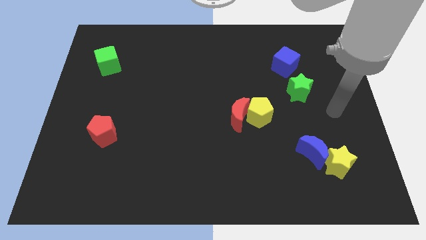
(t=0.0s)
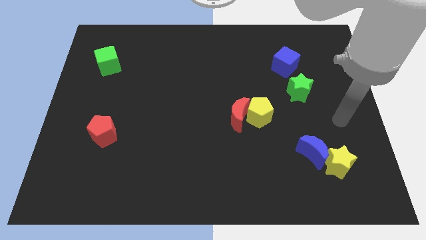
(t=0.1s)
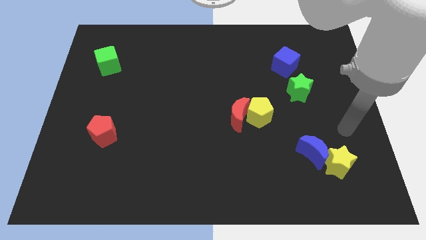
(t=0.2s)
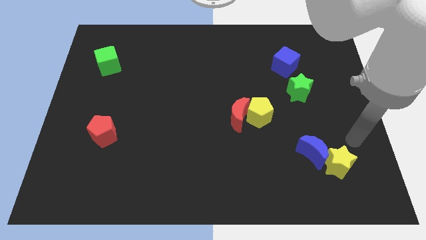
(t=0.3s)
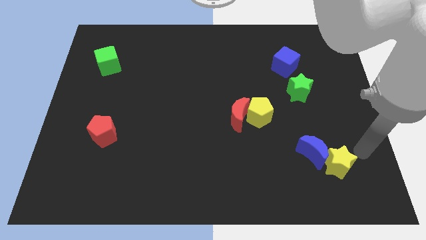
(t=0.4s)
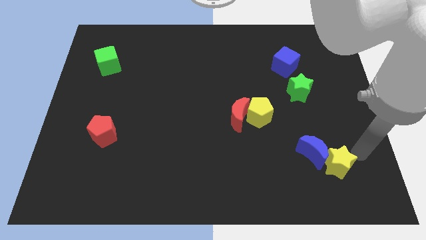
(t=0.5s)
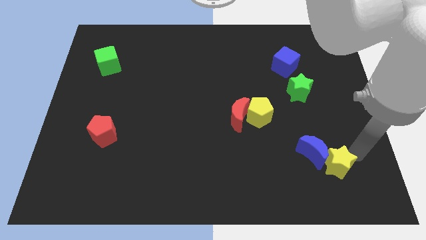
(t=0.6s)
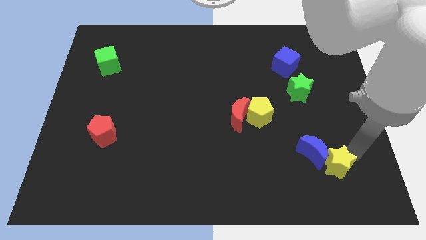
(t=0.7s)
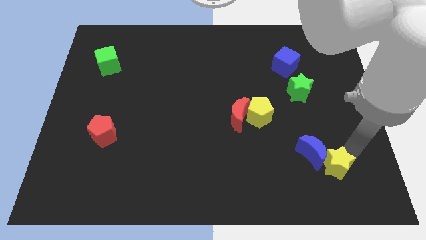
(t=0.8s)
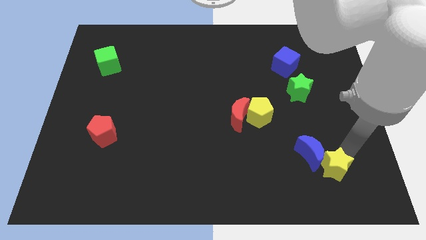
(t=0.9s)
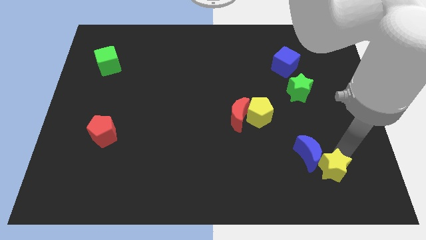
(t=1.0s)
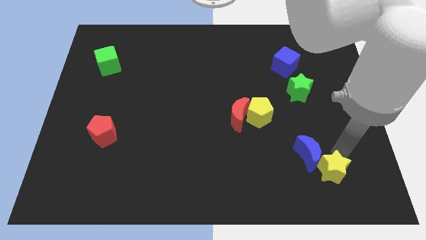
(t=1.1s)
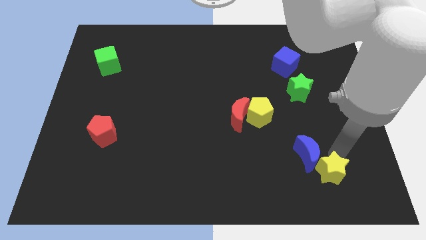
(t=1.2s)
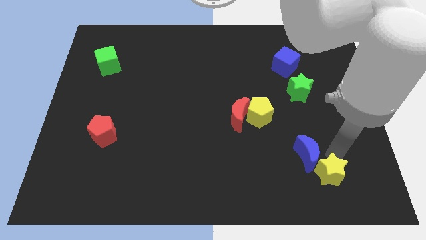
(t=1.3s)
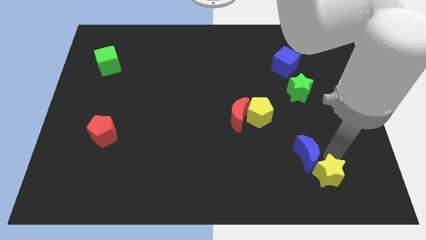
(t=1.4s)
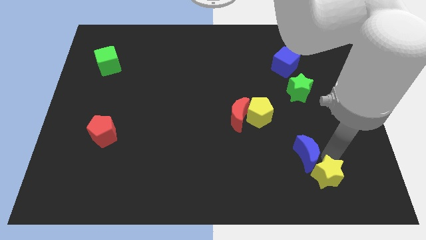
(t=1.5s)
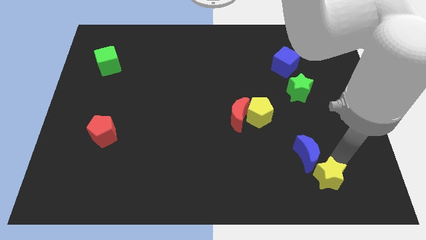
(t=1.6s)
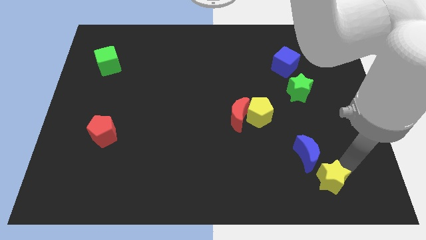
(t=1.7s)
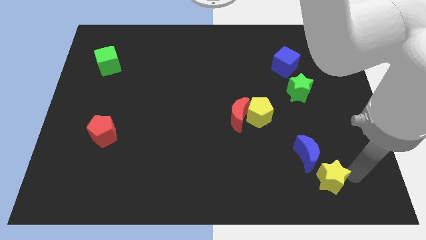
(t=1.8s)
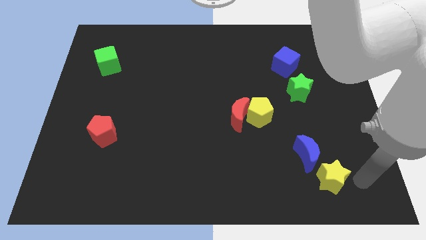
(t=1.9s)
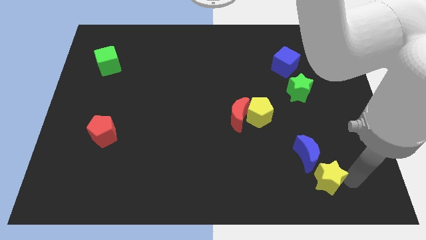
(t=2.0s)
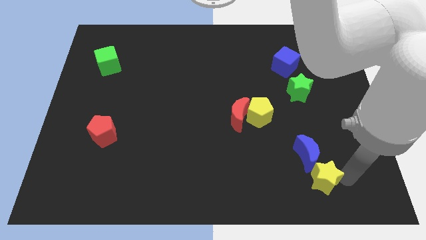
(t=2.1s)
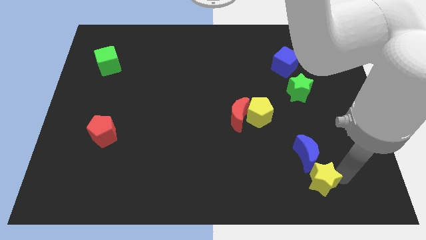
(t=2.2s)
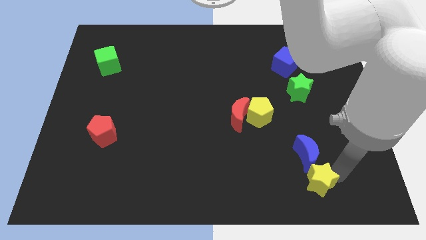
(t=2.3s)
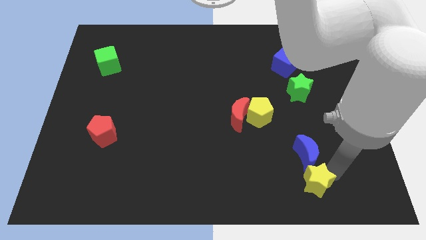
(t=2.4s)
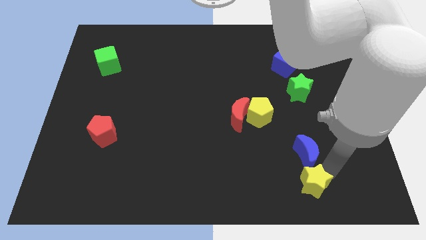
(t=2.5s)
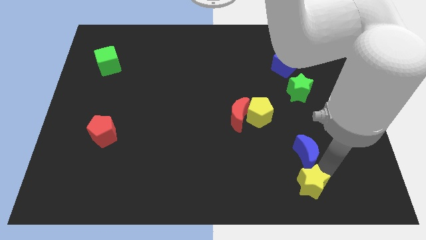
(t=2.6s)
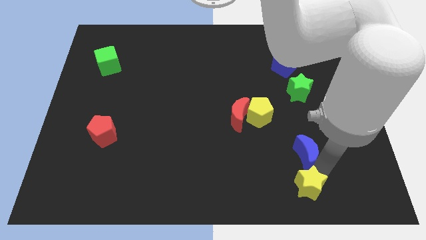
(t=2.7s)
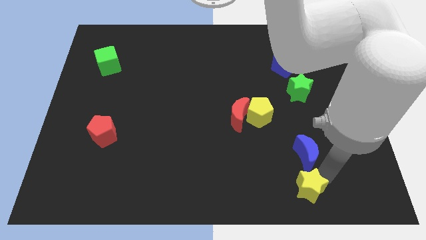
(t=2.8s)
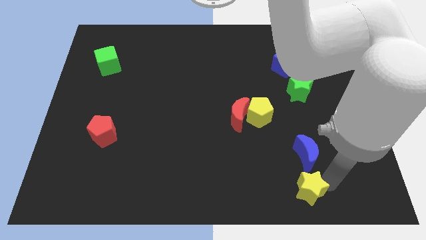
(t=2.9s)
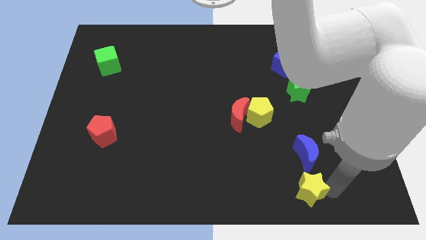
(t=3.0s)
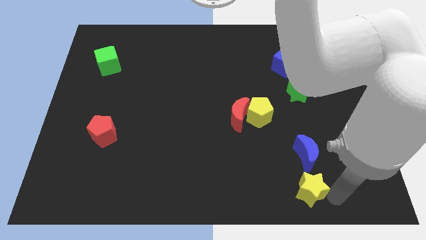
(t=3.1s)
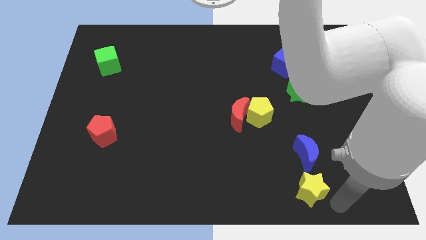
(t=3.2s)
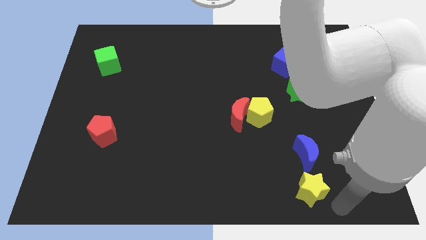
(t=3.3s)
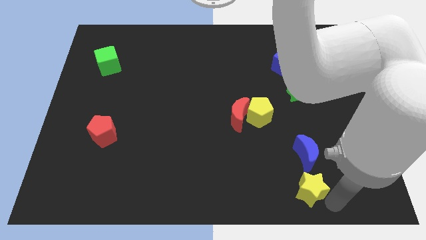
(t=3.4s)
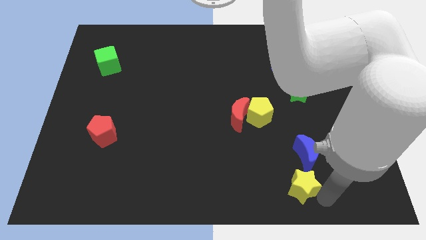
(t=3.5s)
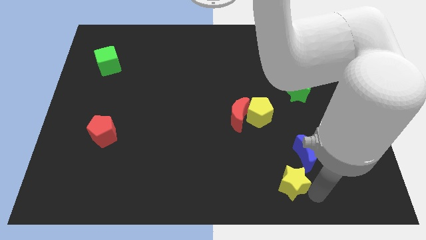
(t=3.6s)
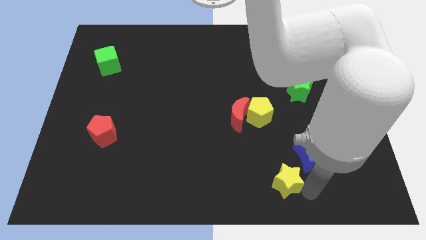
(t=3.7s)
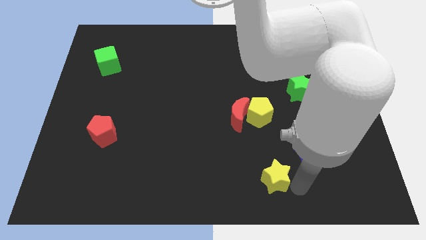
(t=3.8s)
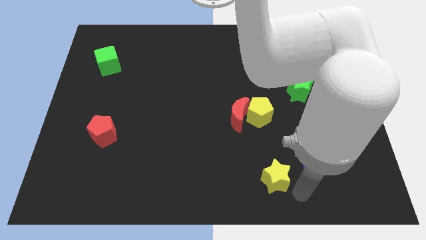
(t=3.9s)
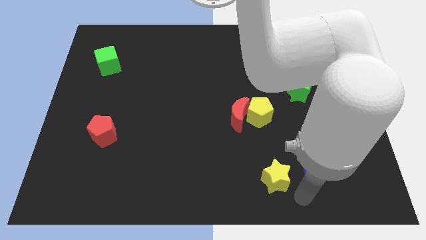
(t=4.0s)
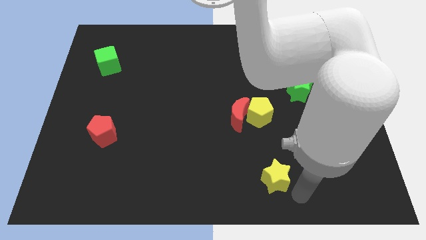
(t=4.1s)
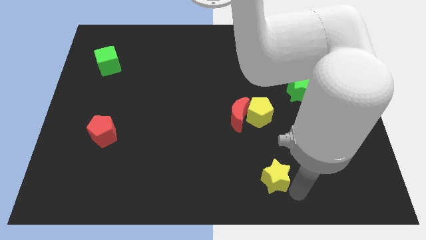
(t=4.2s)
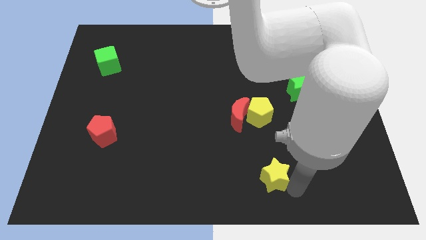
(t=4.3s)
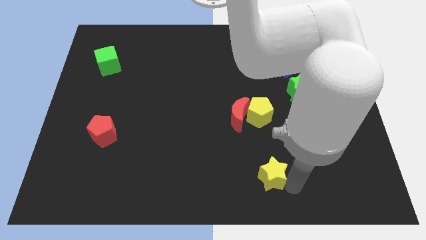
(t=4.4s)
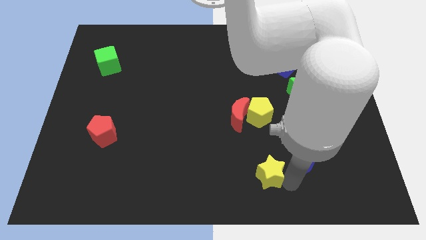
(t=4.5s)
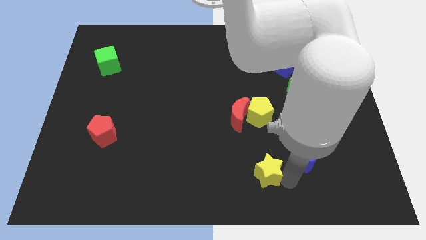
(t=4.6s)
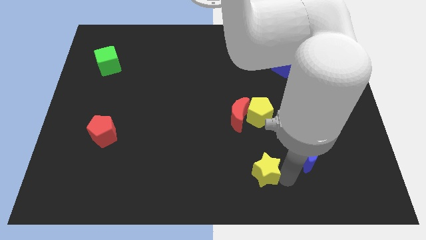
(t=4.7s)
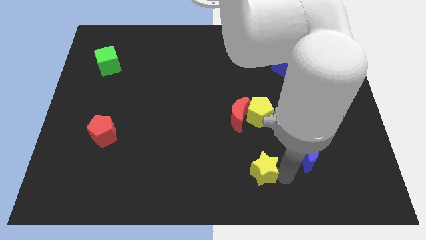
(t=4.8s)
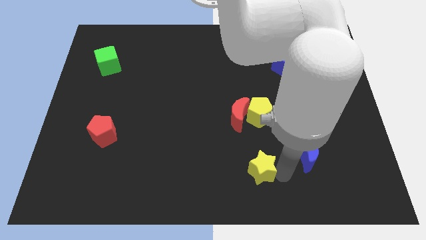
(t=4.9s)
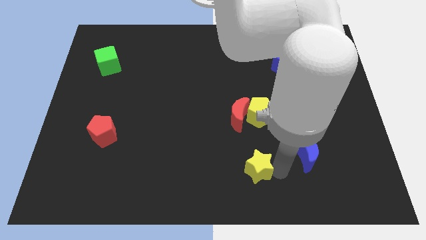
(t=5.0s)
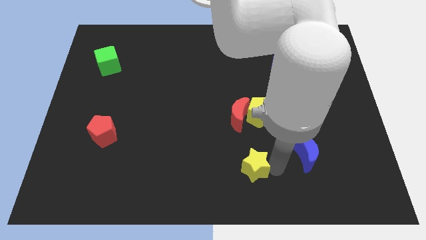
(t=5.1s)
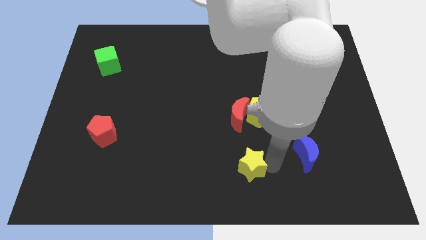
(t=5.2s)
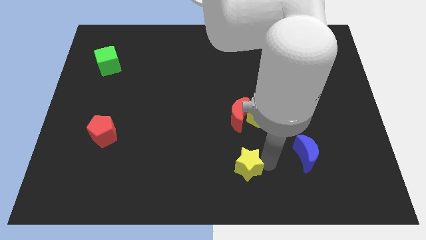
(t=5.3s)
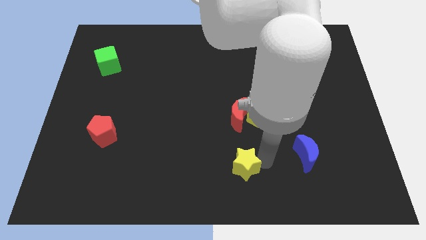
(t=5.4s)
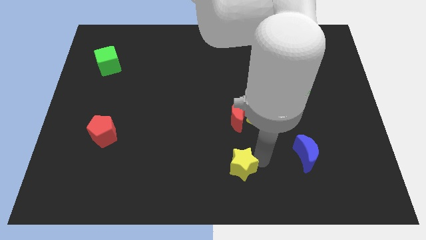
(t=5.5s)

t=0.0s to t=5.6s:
slide the yellow star to the left

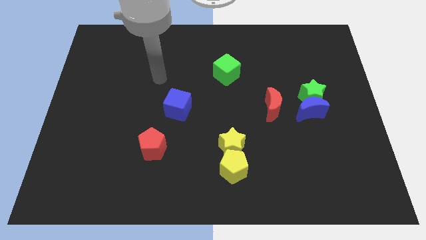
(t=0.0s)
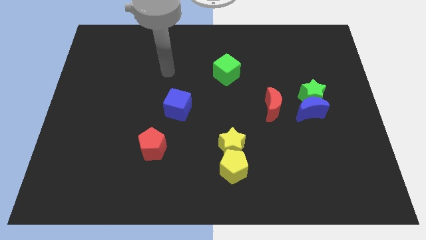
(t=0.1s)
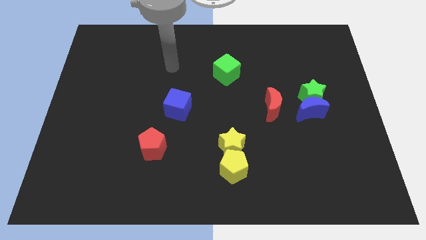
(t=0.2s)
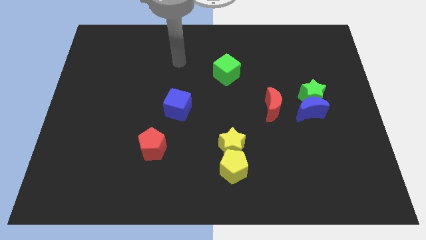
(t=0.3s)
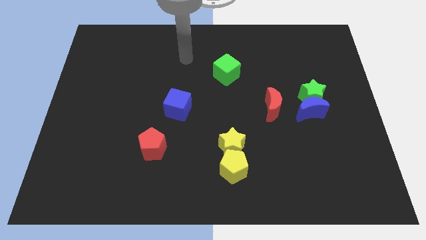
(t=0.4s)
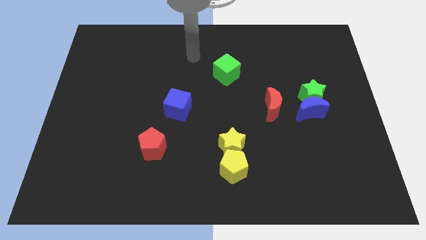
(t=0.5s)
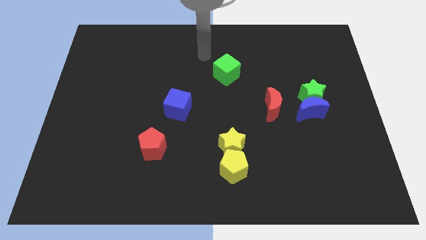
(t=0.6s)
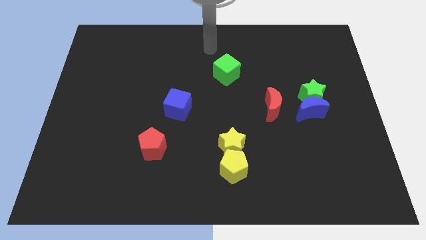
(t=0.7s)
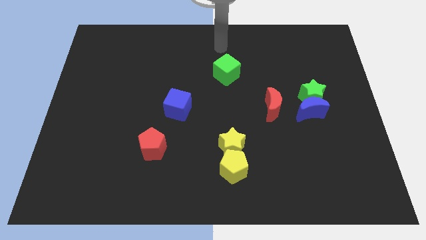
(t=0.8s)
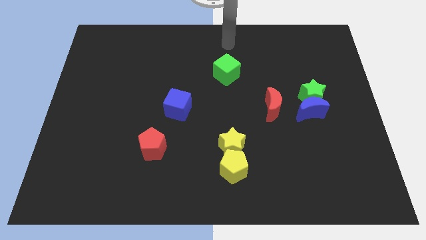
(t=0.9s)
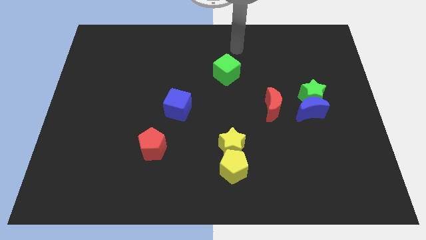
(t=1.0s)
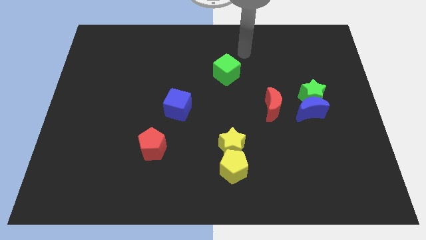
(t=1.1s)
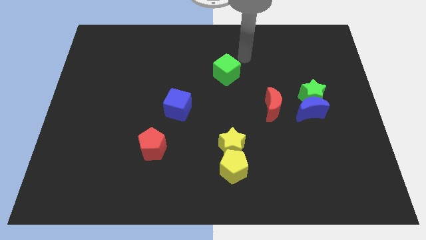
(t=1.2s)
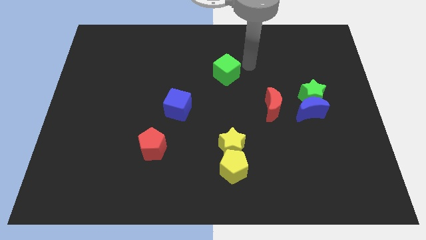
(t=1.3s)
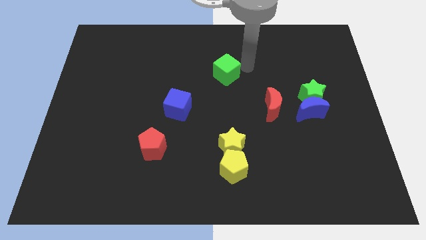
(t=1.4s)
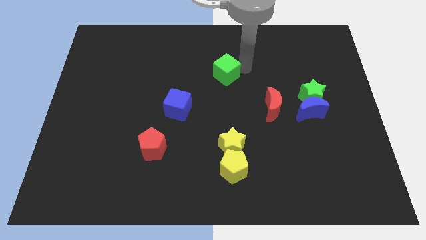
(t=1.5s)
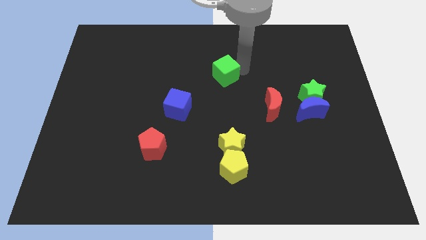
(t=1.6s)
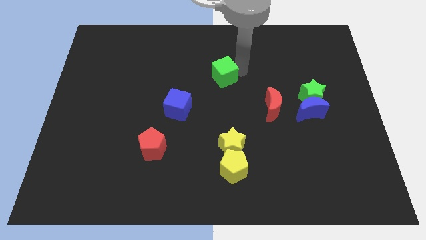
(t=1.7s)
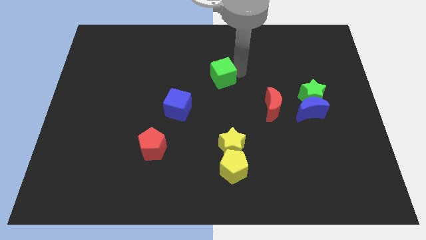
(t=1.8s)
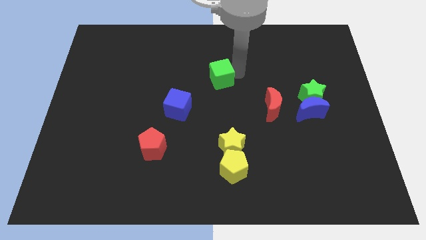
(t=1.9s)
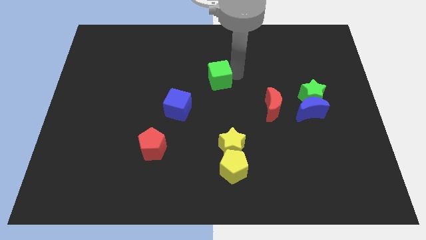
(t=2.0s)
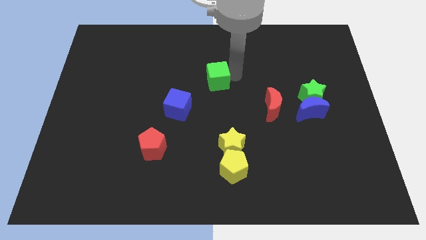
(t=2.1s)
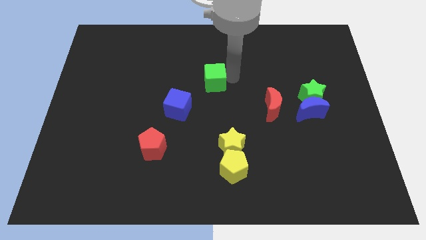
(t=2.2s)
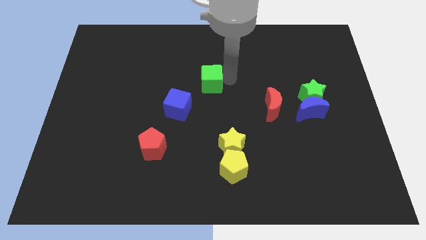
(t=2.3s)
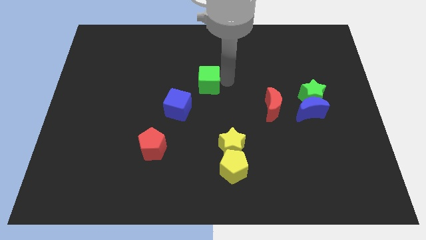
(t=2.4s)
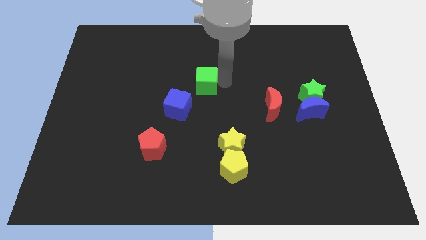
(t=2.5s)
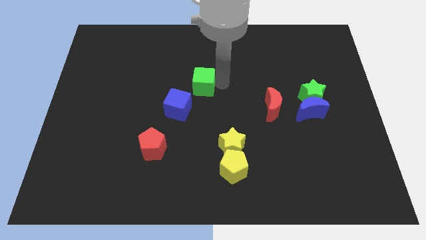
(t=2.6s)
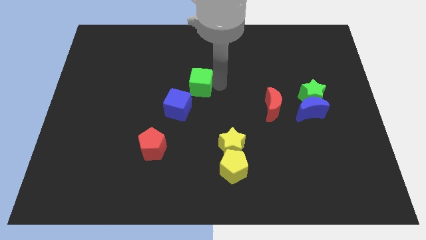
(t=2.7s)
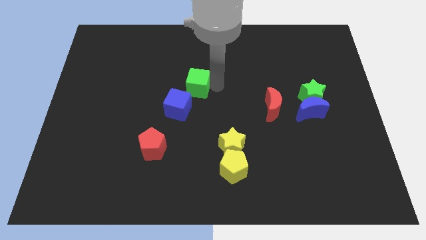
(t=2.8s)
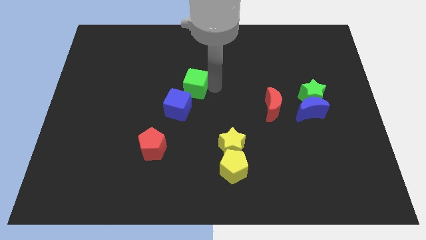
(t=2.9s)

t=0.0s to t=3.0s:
slide the green cube to the left a little bit
